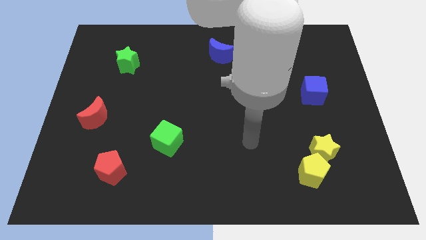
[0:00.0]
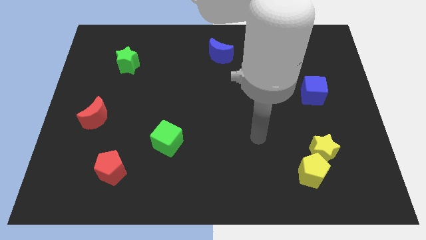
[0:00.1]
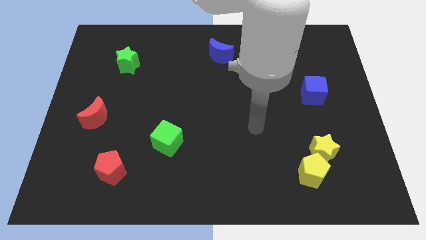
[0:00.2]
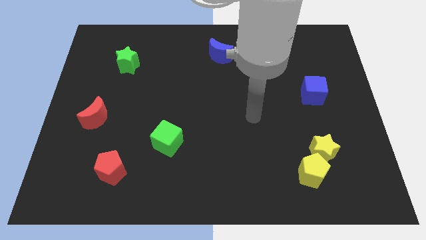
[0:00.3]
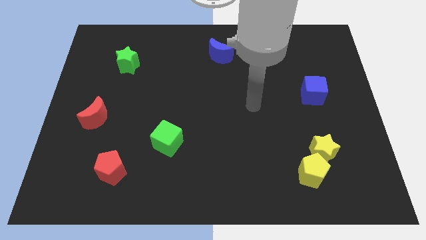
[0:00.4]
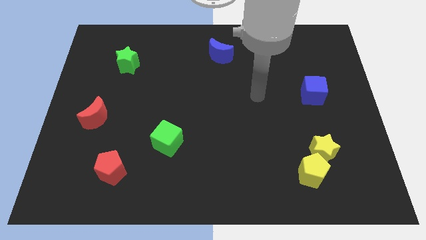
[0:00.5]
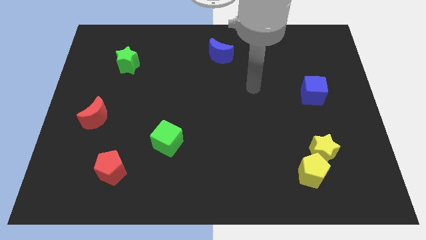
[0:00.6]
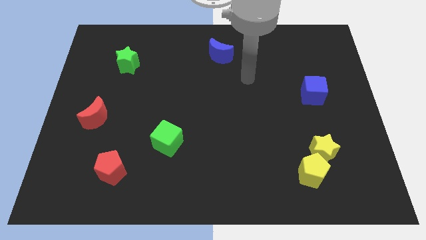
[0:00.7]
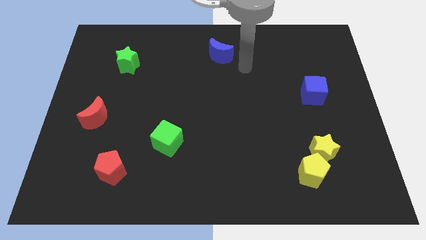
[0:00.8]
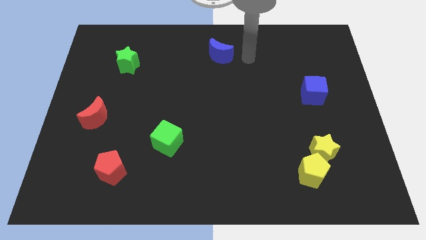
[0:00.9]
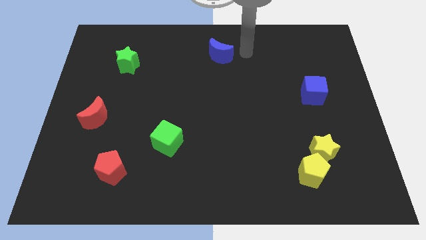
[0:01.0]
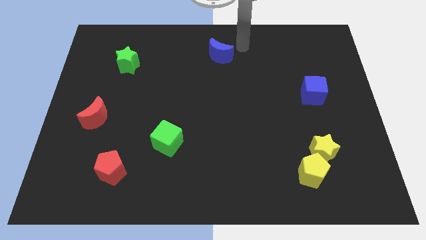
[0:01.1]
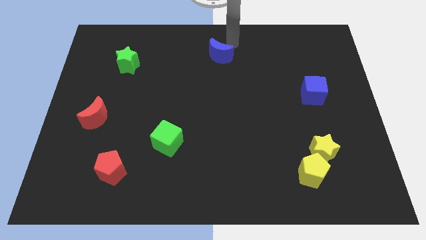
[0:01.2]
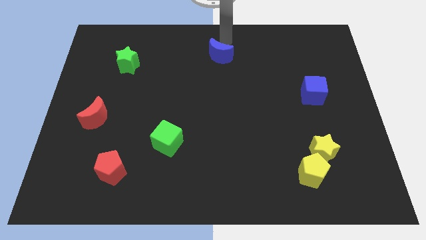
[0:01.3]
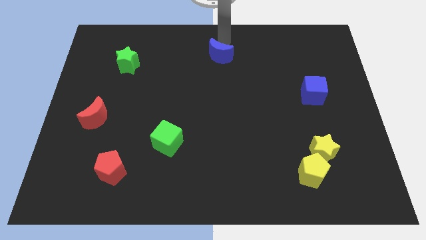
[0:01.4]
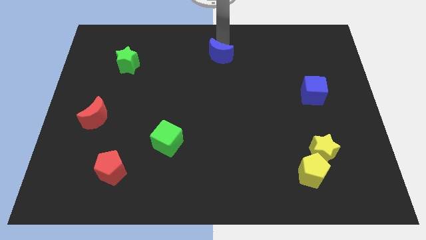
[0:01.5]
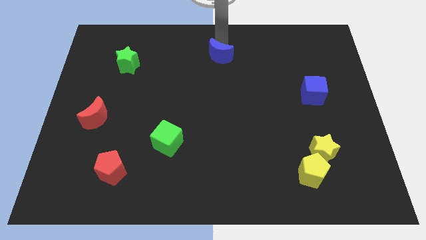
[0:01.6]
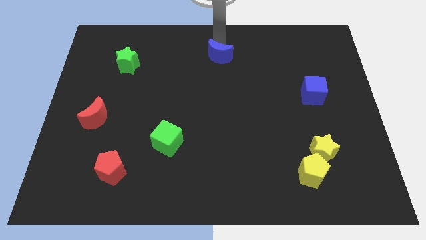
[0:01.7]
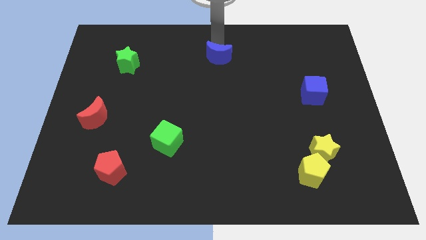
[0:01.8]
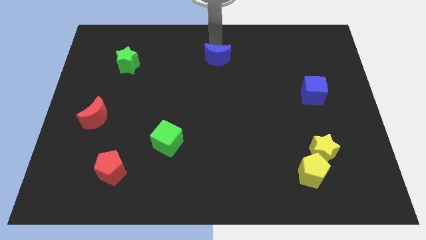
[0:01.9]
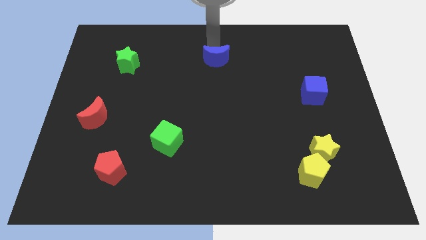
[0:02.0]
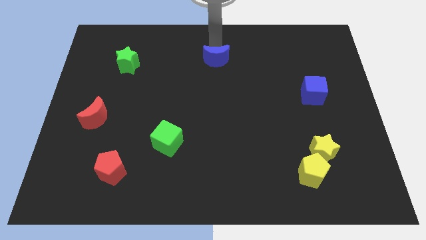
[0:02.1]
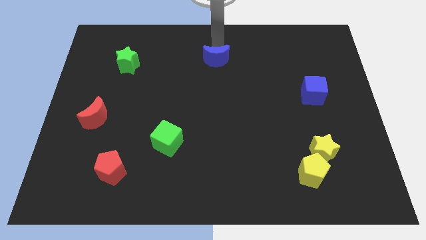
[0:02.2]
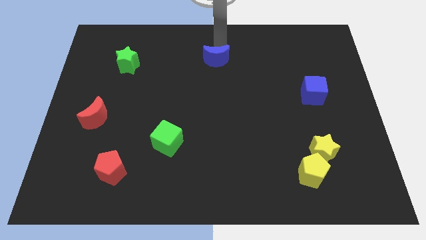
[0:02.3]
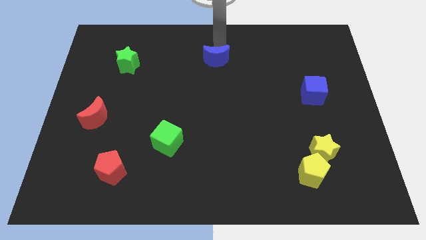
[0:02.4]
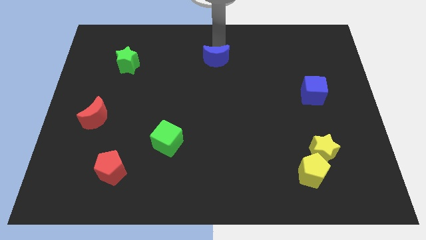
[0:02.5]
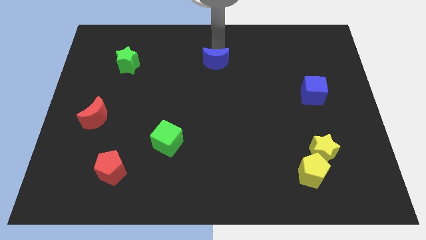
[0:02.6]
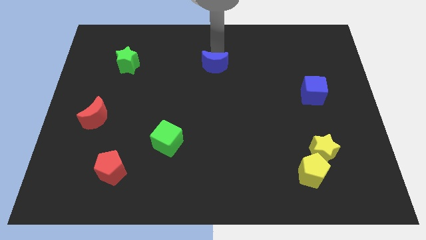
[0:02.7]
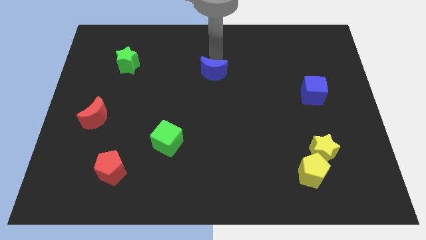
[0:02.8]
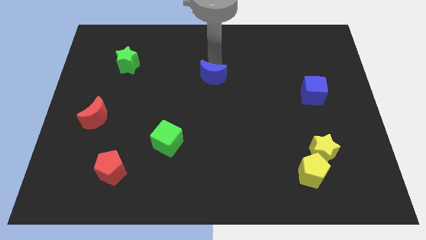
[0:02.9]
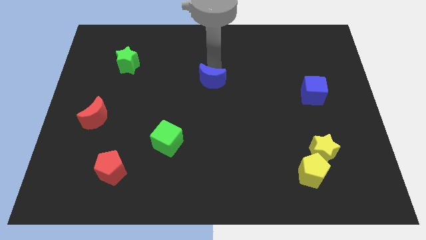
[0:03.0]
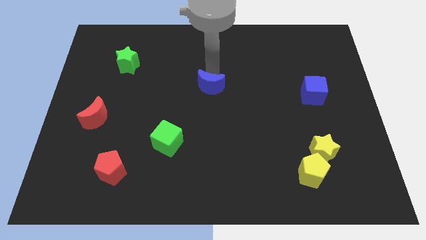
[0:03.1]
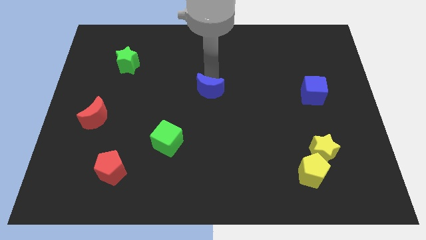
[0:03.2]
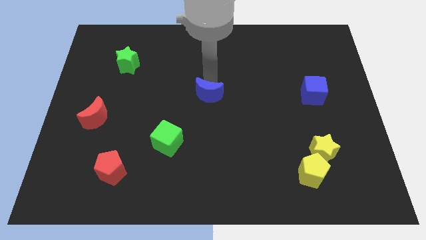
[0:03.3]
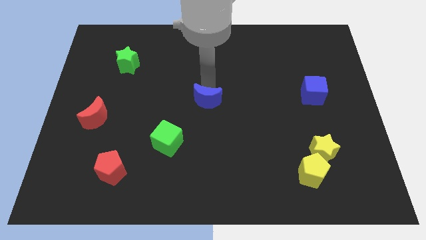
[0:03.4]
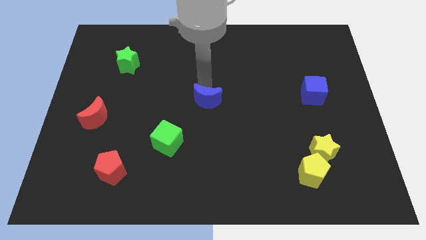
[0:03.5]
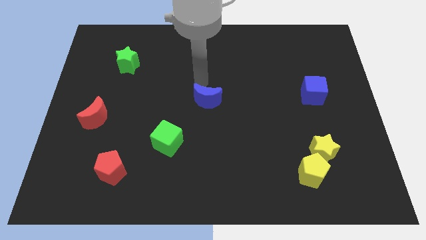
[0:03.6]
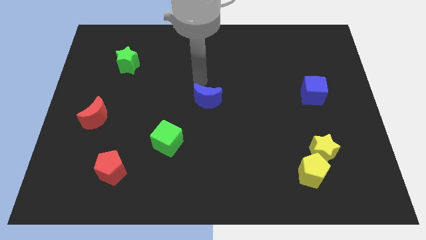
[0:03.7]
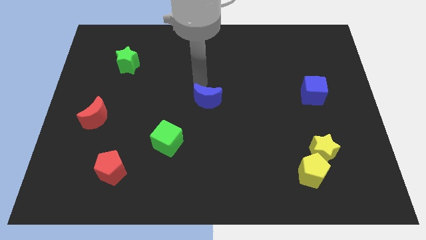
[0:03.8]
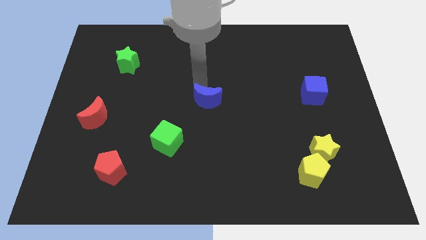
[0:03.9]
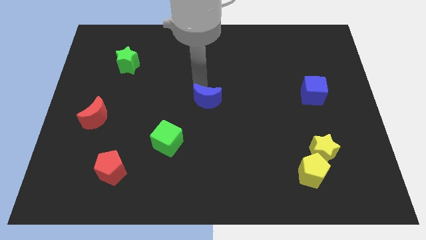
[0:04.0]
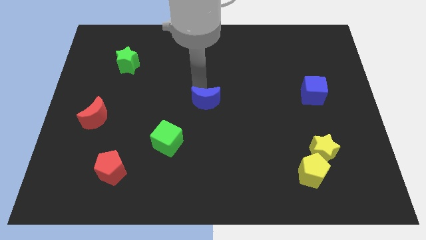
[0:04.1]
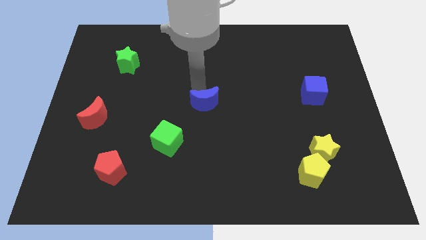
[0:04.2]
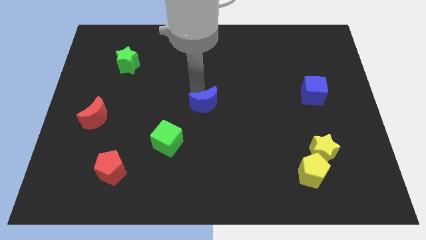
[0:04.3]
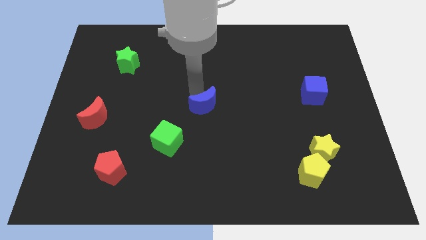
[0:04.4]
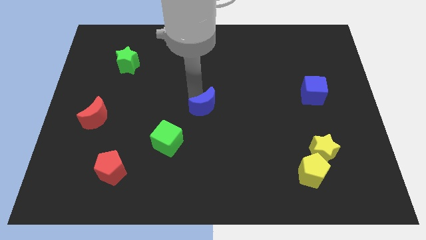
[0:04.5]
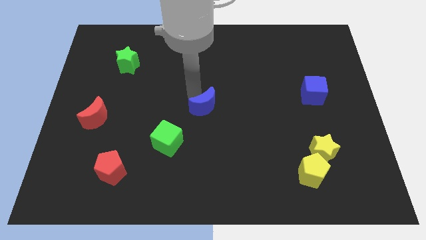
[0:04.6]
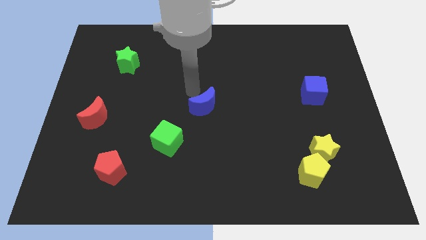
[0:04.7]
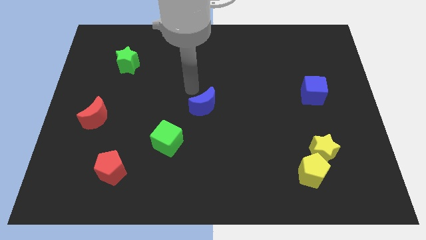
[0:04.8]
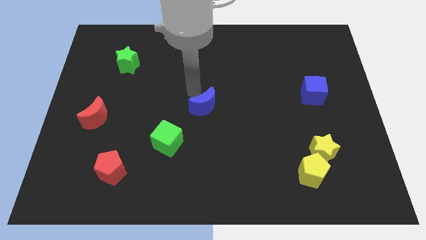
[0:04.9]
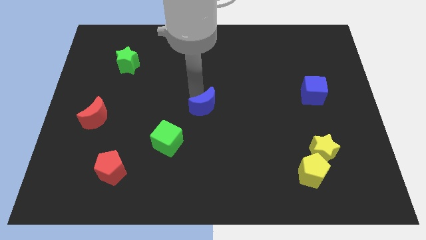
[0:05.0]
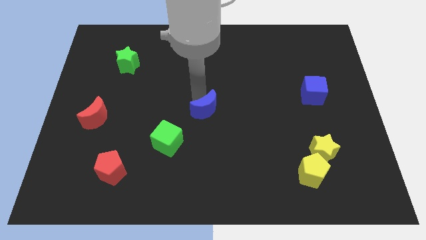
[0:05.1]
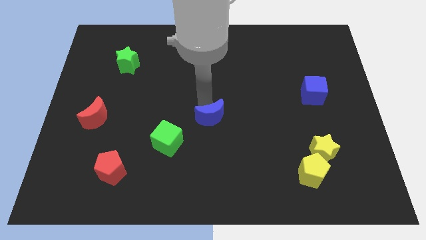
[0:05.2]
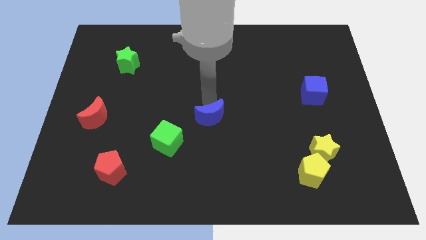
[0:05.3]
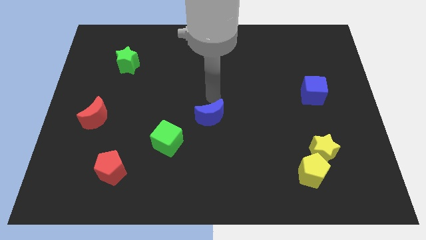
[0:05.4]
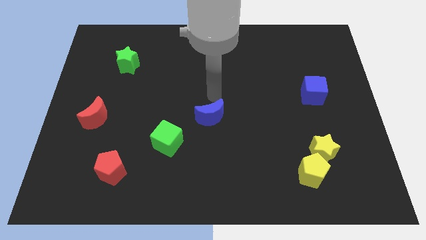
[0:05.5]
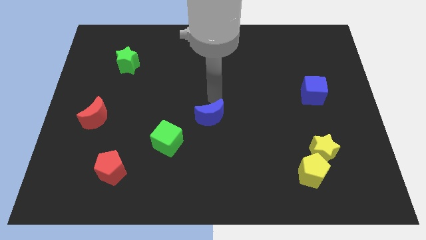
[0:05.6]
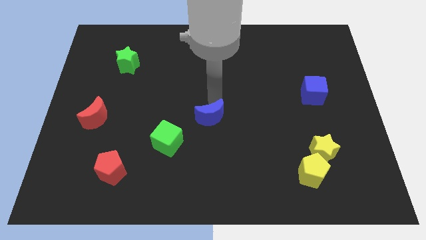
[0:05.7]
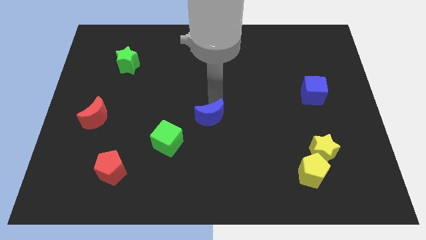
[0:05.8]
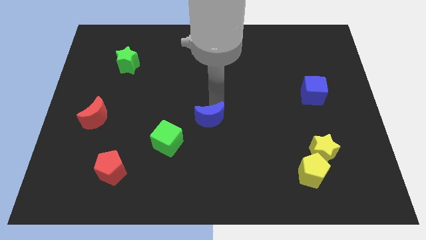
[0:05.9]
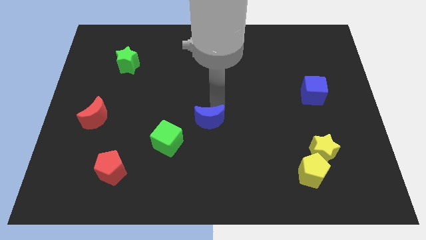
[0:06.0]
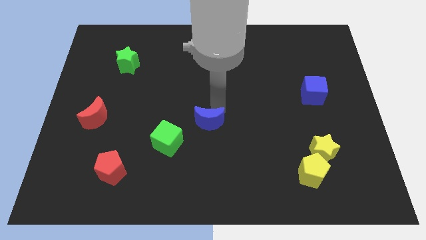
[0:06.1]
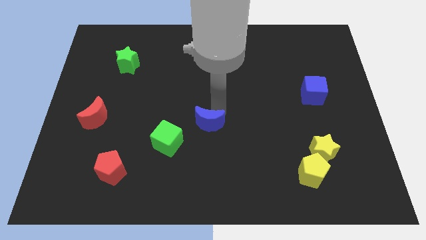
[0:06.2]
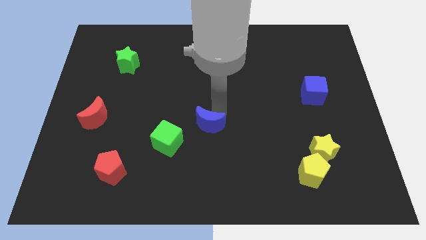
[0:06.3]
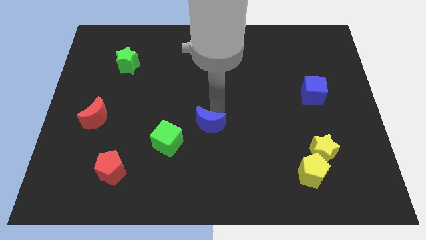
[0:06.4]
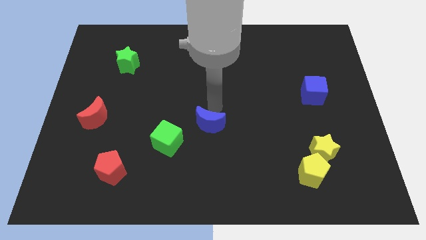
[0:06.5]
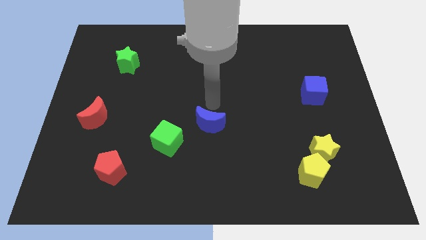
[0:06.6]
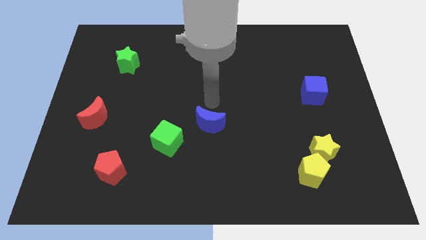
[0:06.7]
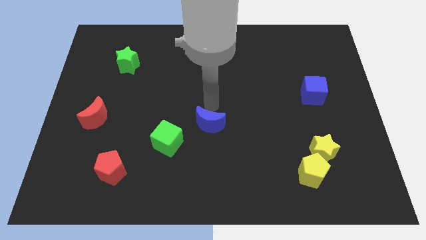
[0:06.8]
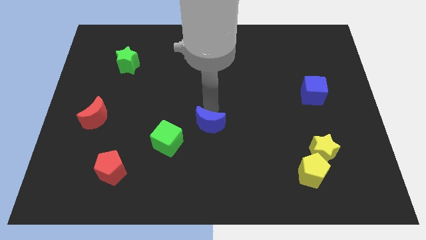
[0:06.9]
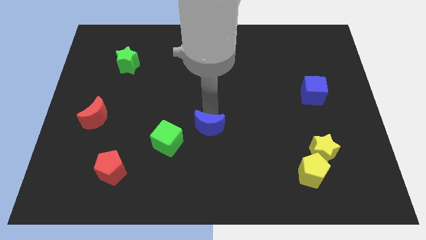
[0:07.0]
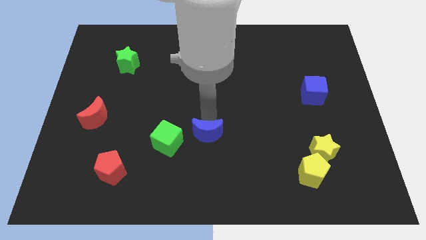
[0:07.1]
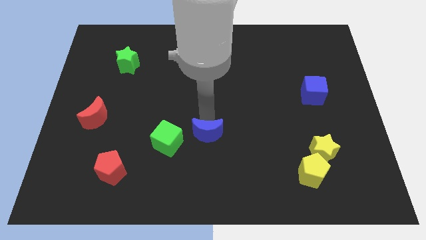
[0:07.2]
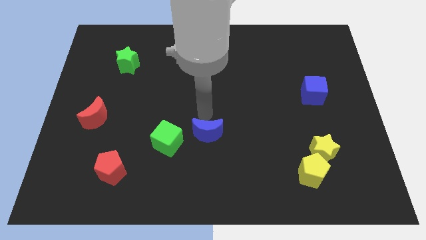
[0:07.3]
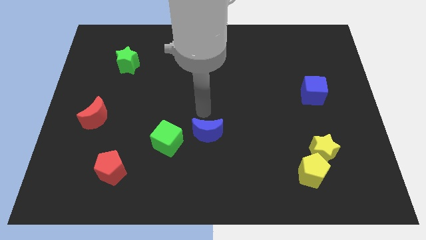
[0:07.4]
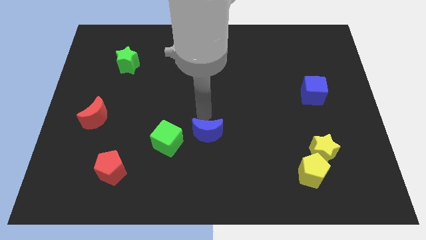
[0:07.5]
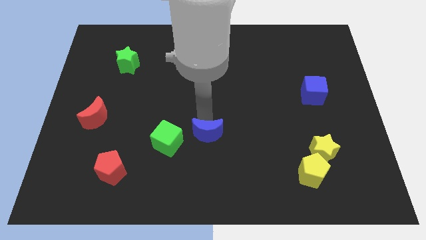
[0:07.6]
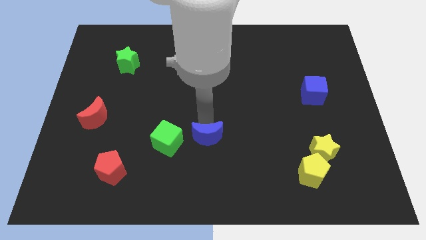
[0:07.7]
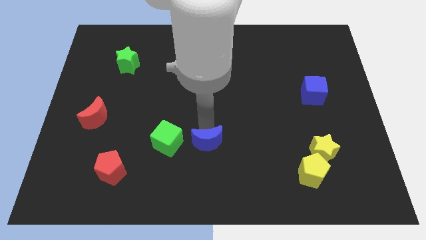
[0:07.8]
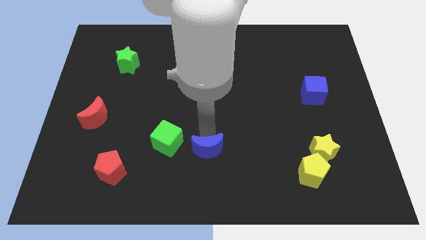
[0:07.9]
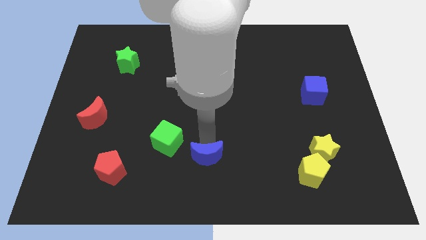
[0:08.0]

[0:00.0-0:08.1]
slide the blue moon to the bottom
